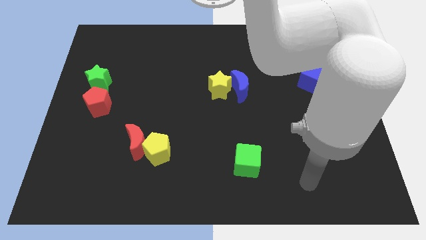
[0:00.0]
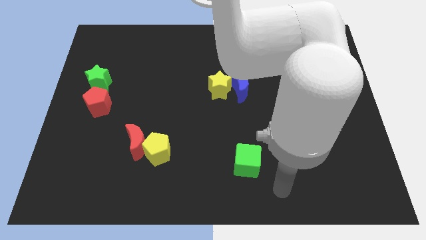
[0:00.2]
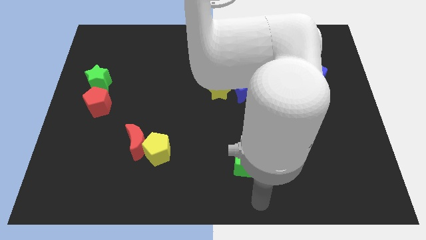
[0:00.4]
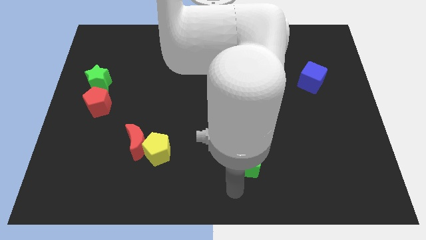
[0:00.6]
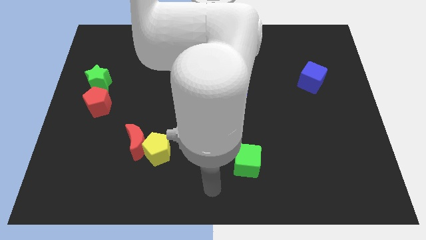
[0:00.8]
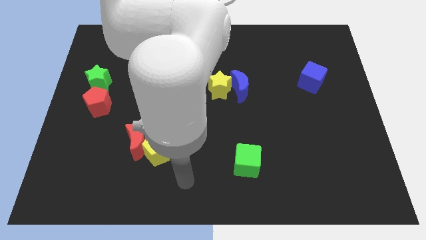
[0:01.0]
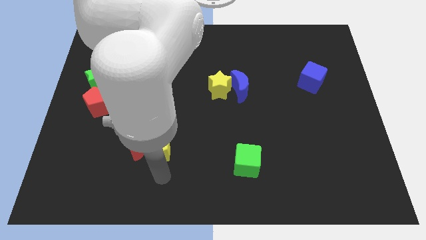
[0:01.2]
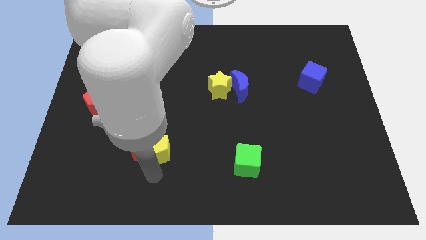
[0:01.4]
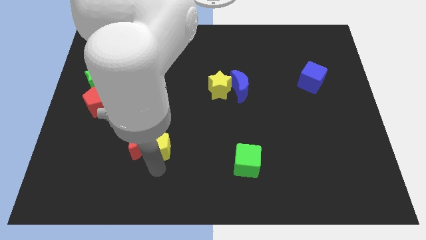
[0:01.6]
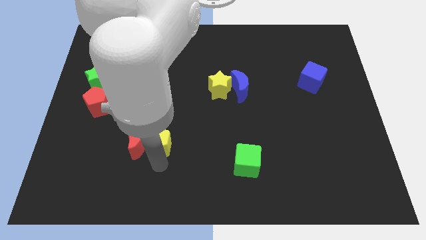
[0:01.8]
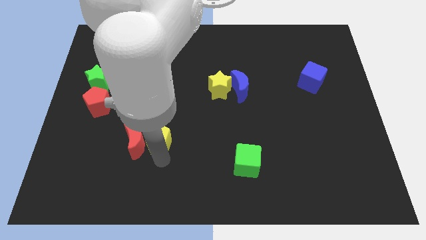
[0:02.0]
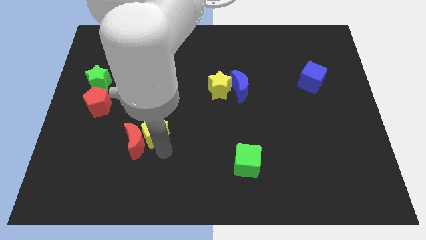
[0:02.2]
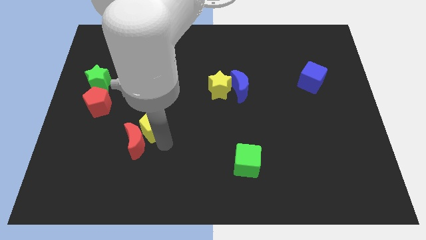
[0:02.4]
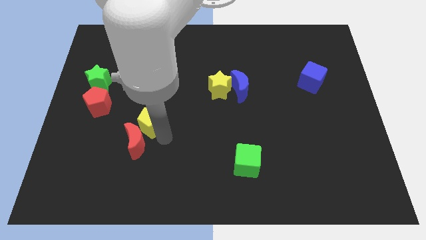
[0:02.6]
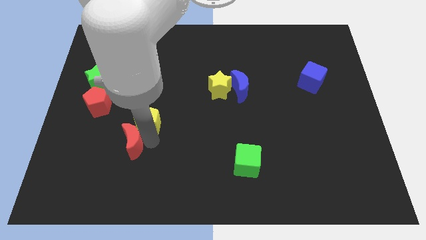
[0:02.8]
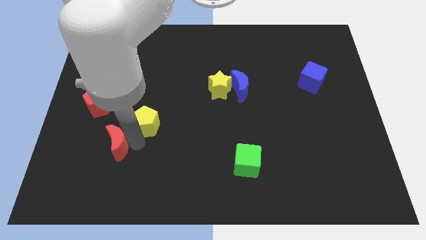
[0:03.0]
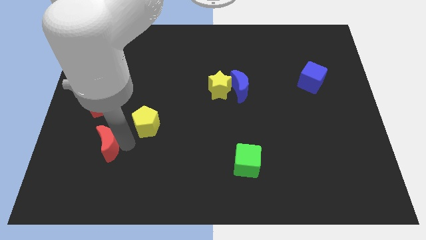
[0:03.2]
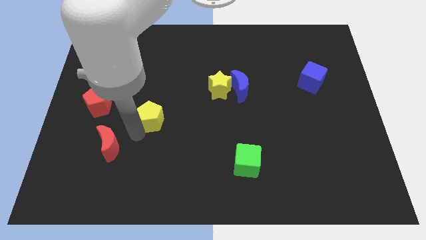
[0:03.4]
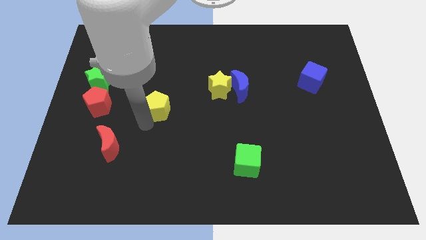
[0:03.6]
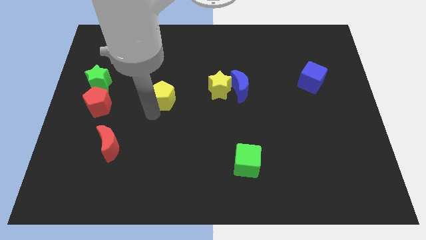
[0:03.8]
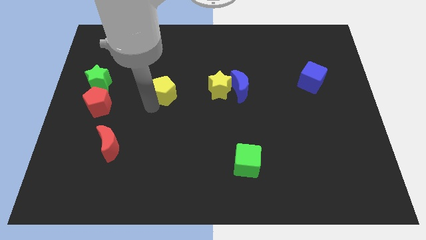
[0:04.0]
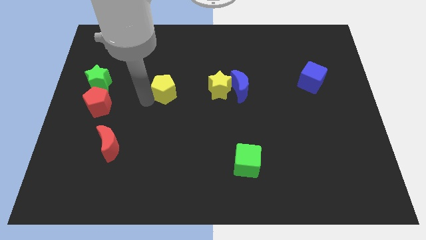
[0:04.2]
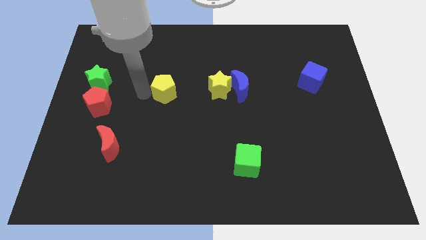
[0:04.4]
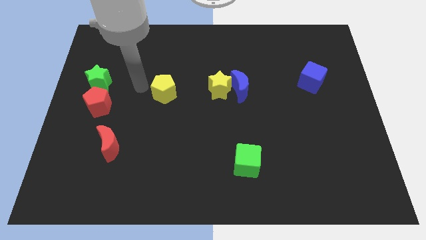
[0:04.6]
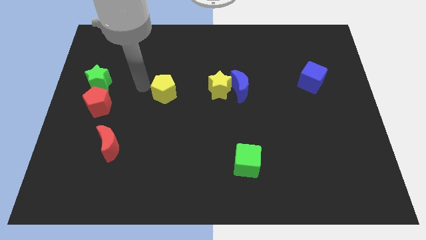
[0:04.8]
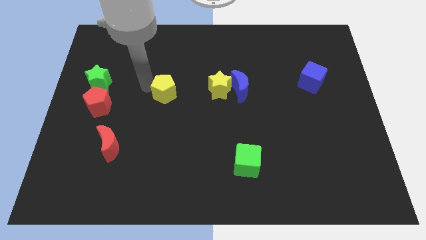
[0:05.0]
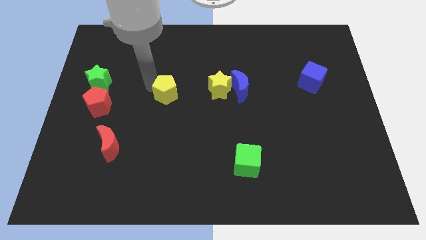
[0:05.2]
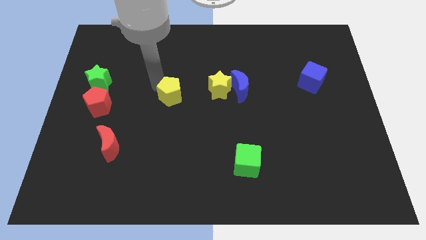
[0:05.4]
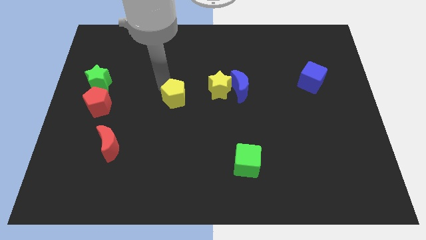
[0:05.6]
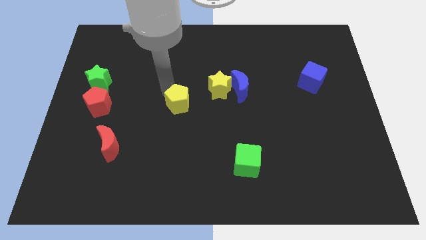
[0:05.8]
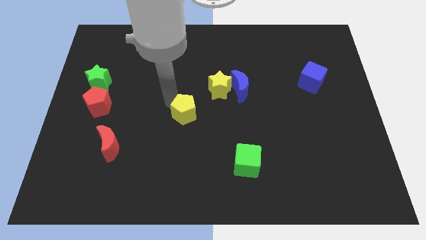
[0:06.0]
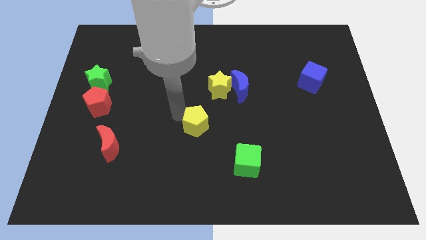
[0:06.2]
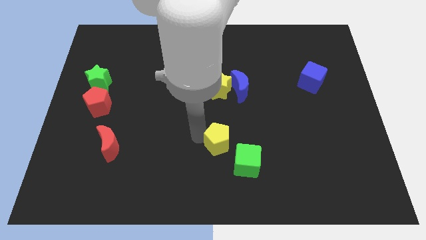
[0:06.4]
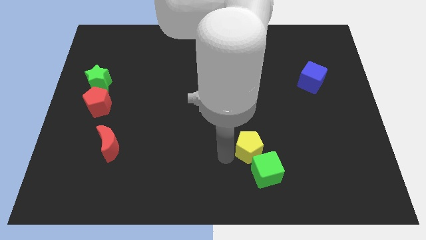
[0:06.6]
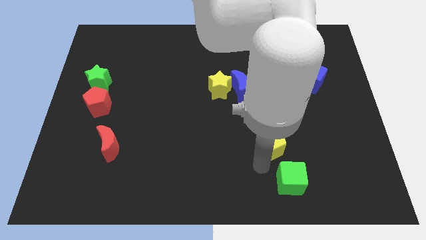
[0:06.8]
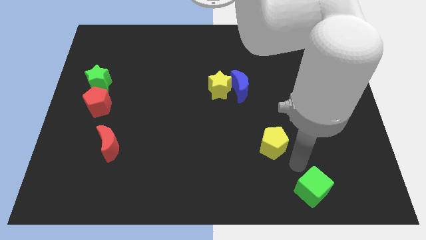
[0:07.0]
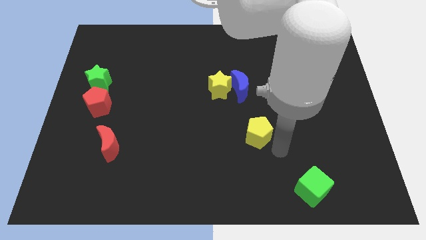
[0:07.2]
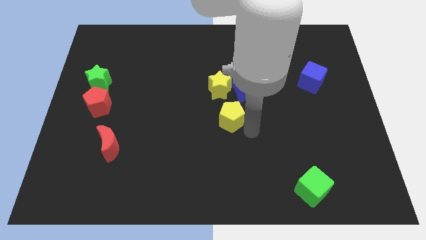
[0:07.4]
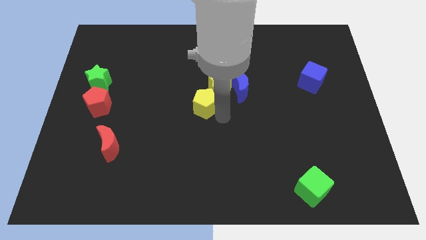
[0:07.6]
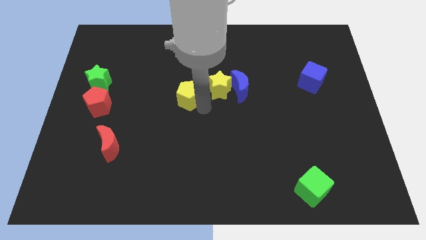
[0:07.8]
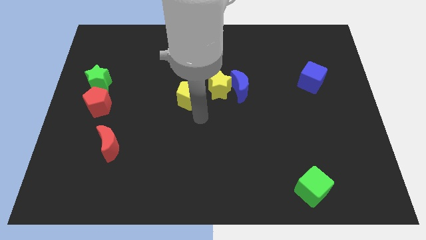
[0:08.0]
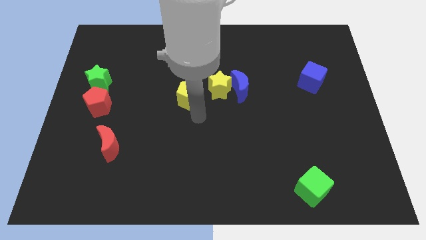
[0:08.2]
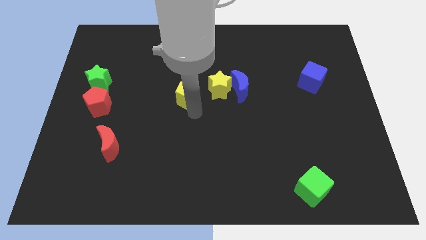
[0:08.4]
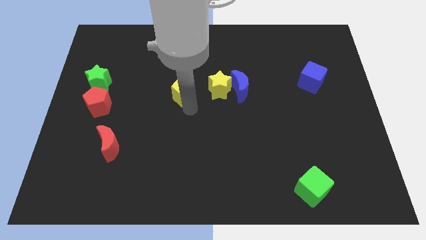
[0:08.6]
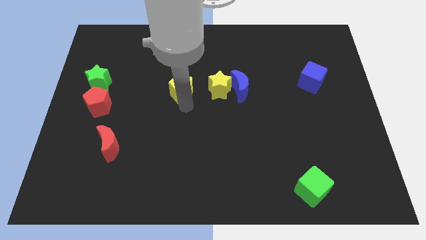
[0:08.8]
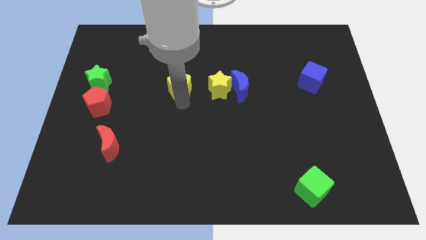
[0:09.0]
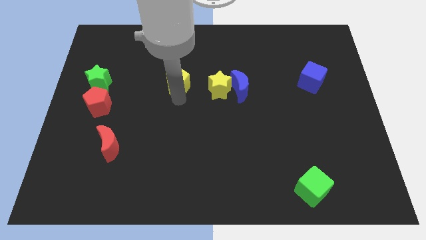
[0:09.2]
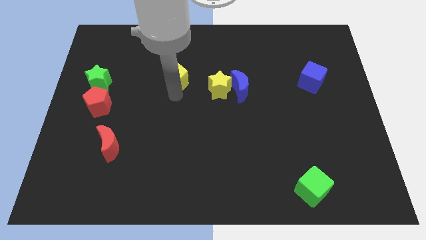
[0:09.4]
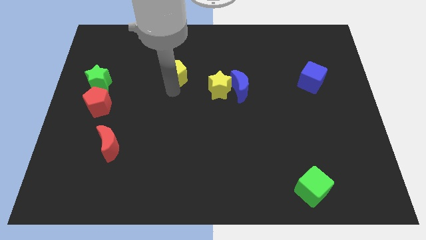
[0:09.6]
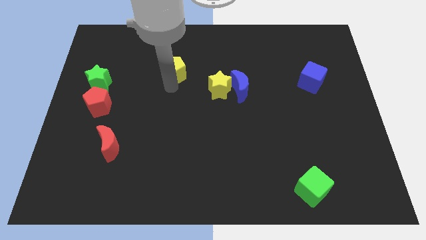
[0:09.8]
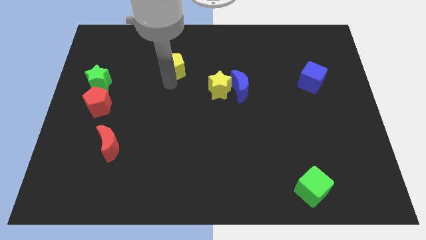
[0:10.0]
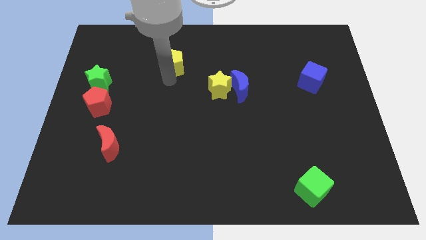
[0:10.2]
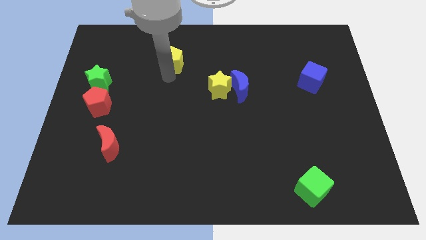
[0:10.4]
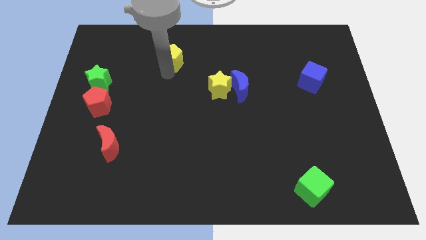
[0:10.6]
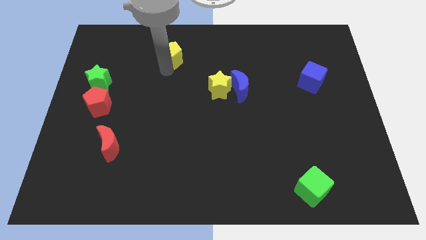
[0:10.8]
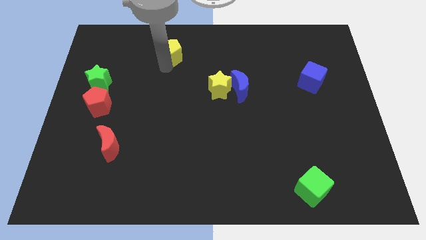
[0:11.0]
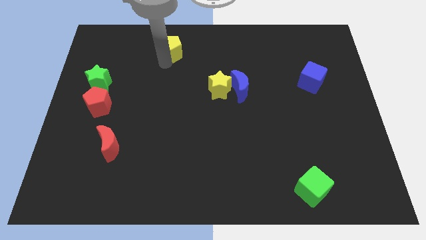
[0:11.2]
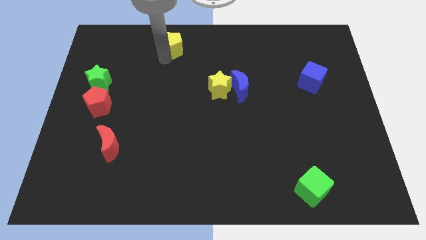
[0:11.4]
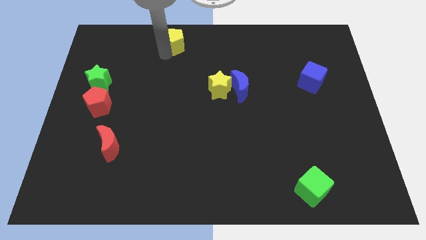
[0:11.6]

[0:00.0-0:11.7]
put the yellow pentagon to the towards your base

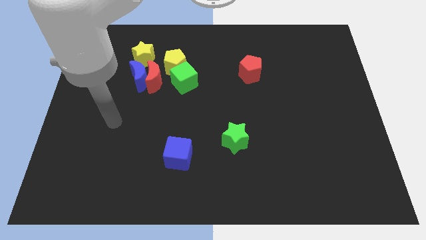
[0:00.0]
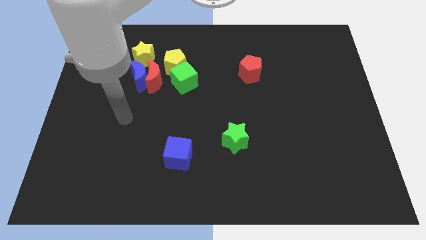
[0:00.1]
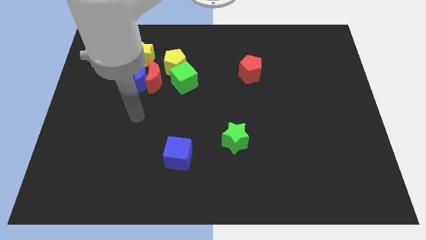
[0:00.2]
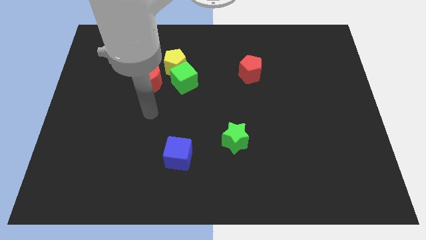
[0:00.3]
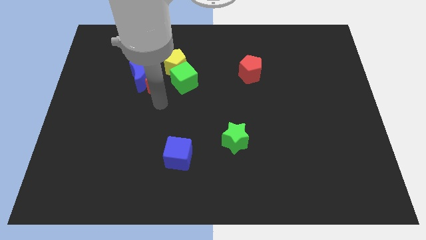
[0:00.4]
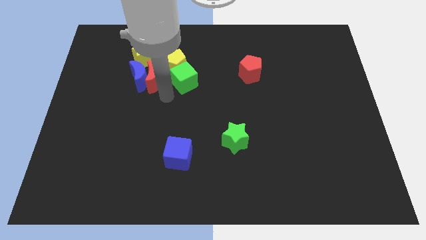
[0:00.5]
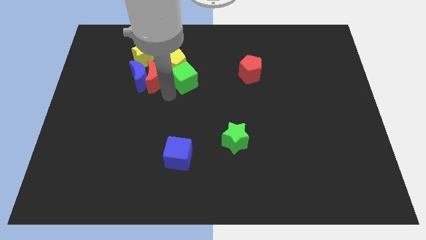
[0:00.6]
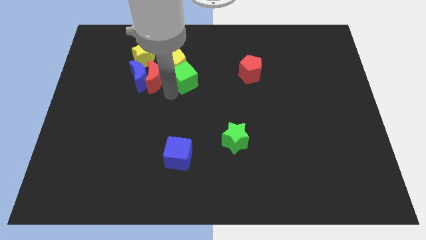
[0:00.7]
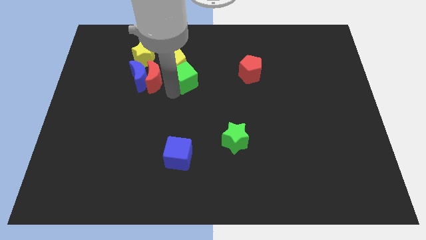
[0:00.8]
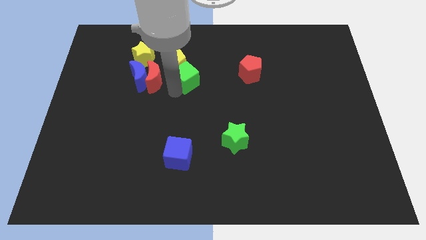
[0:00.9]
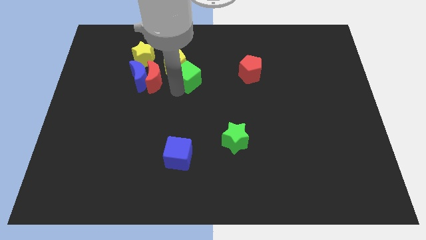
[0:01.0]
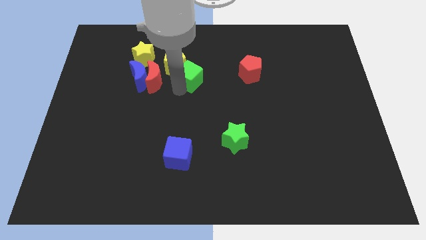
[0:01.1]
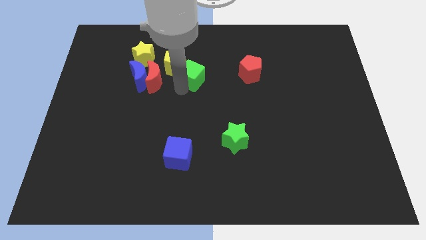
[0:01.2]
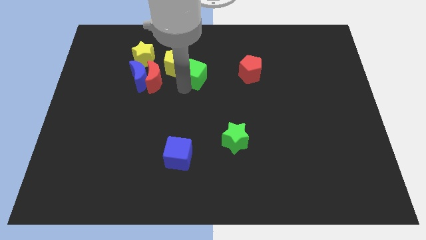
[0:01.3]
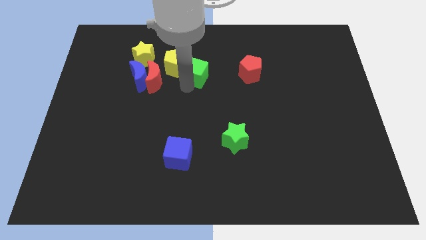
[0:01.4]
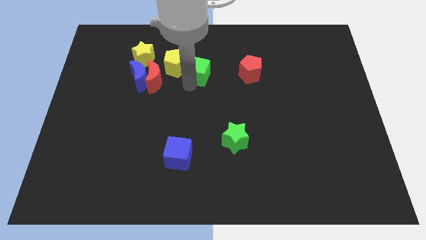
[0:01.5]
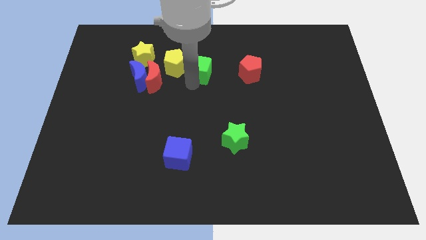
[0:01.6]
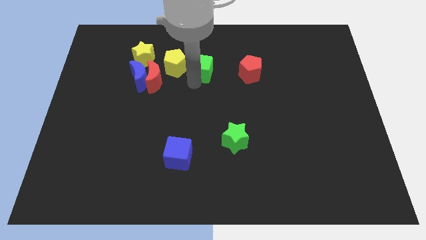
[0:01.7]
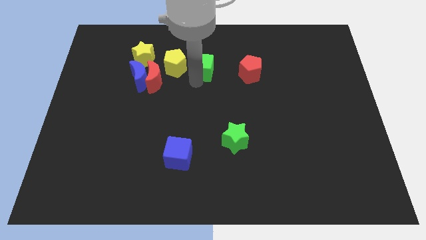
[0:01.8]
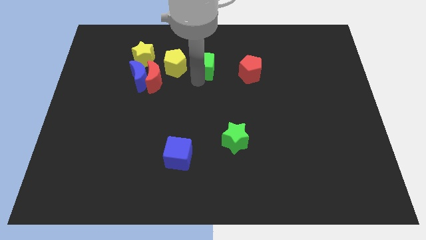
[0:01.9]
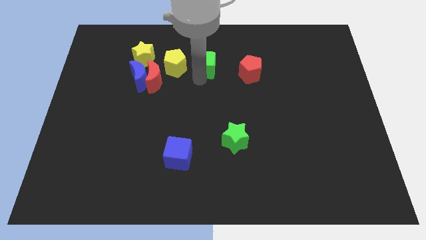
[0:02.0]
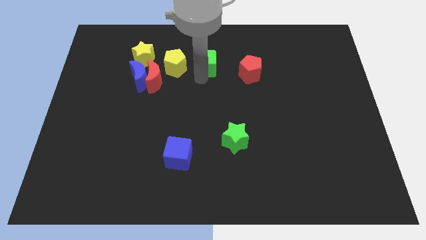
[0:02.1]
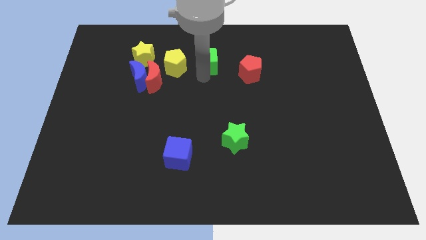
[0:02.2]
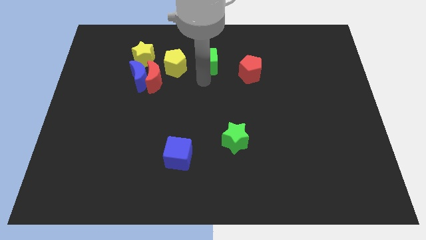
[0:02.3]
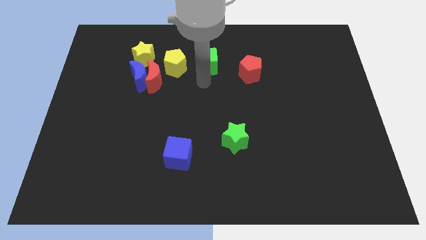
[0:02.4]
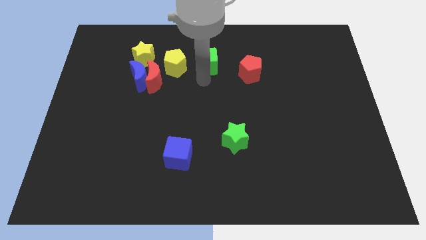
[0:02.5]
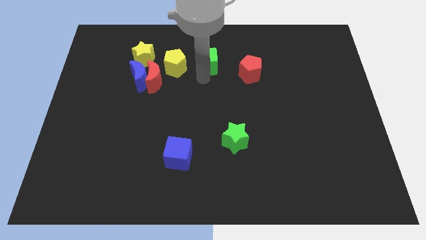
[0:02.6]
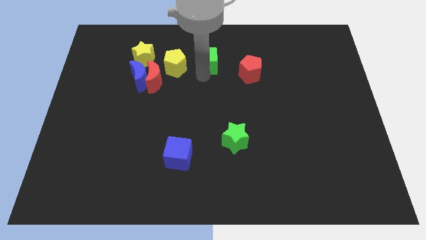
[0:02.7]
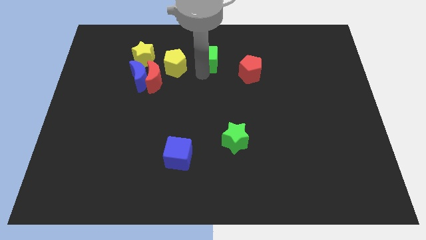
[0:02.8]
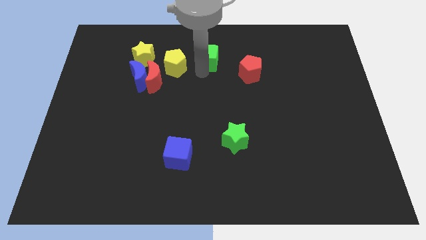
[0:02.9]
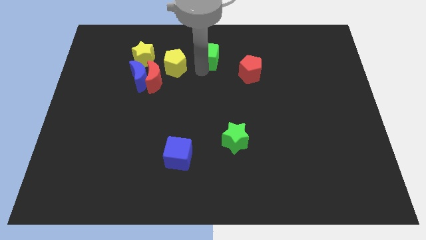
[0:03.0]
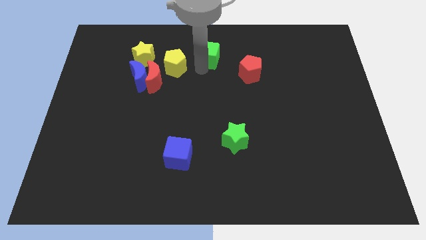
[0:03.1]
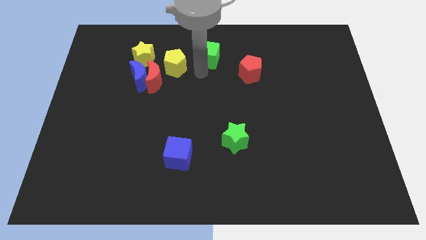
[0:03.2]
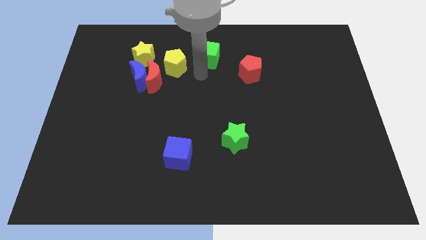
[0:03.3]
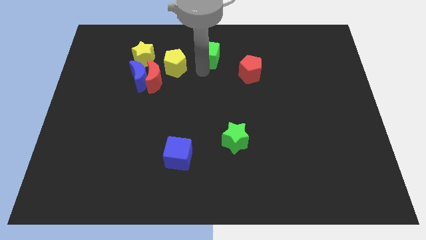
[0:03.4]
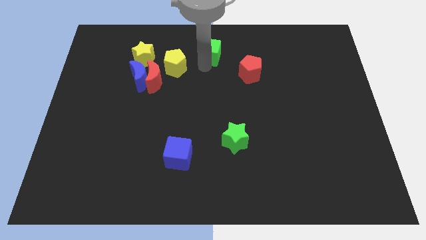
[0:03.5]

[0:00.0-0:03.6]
push the green cube to the towards your base
